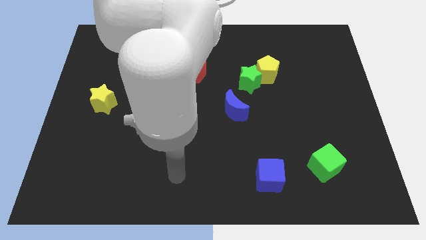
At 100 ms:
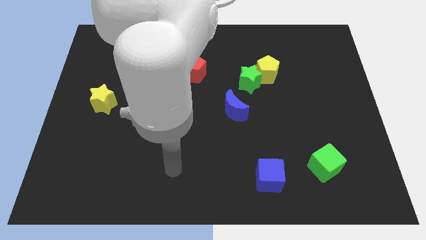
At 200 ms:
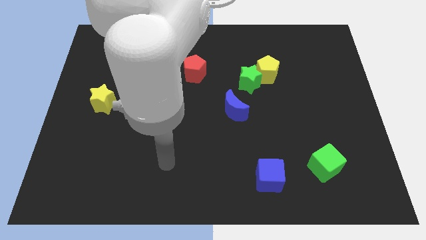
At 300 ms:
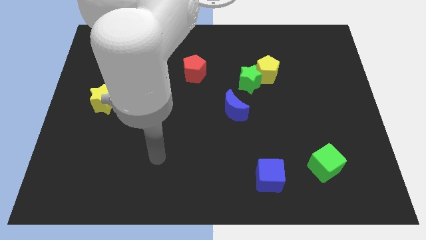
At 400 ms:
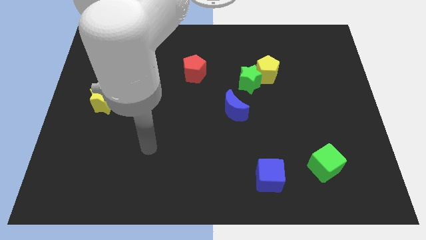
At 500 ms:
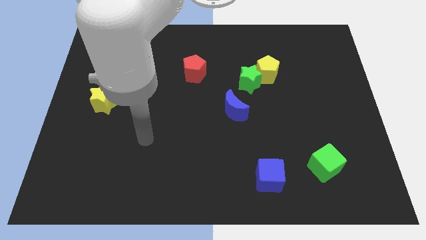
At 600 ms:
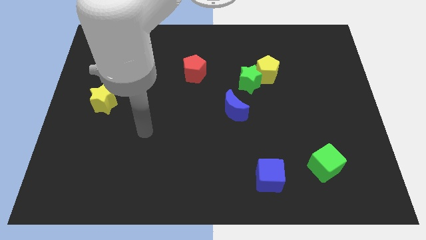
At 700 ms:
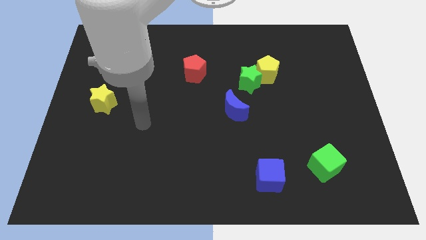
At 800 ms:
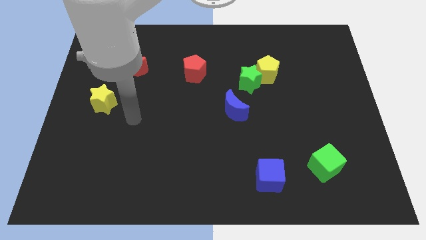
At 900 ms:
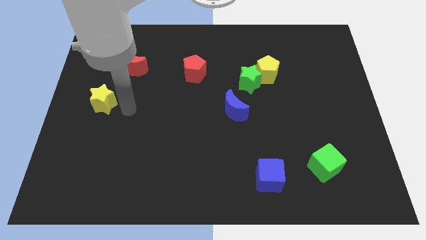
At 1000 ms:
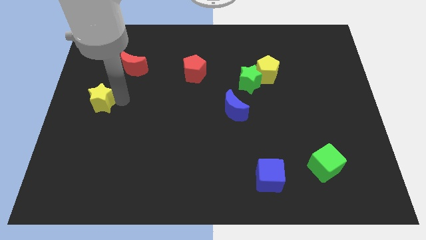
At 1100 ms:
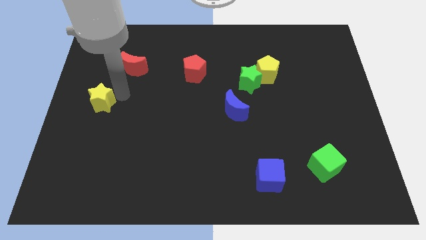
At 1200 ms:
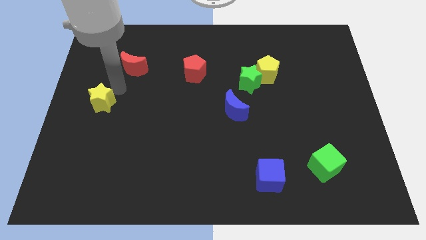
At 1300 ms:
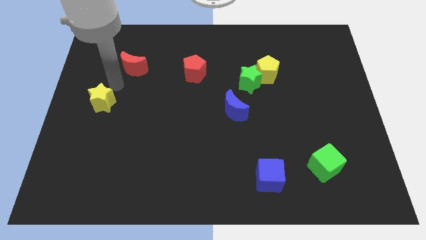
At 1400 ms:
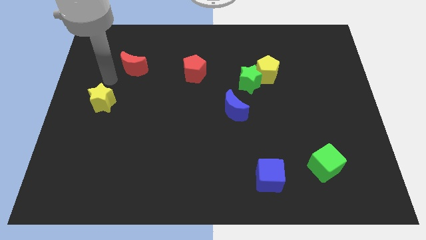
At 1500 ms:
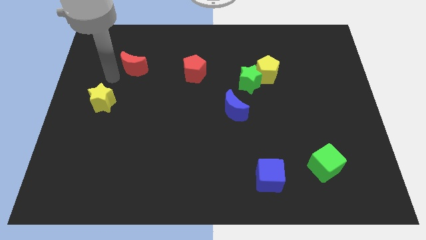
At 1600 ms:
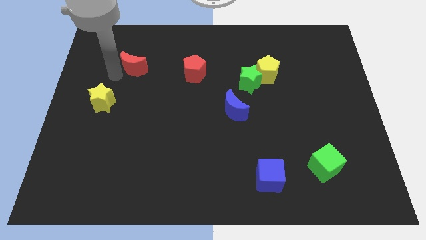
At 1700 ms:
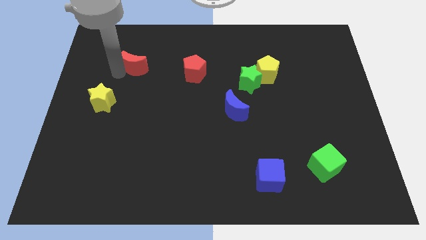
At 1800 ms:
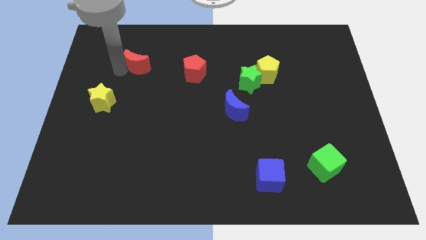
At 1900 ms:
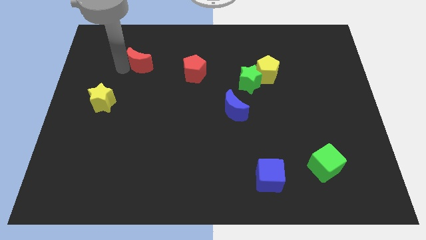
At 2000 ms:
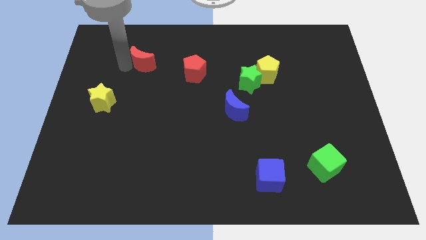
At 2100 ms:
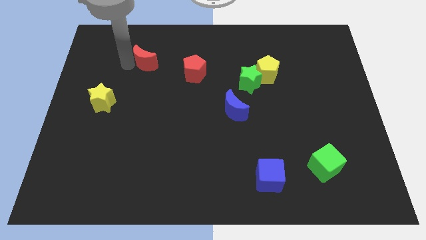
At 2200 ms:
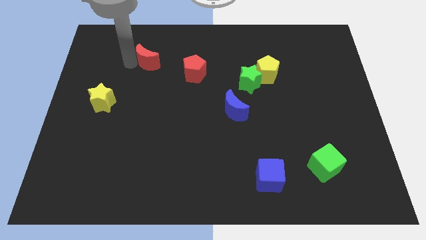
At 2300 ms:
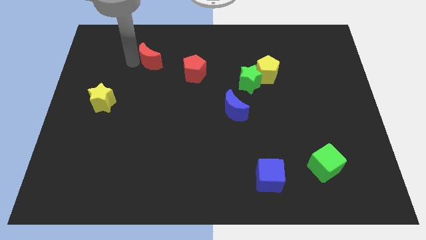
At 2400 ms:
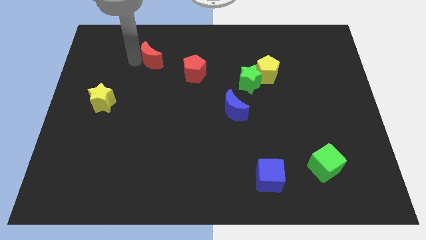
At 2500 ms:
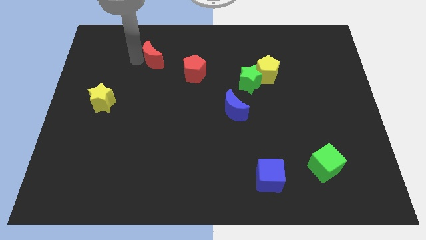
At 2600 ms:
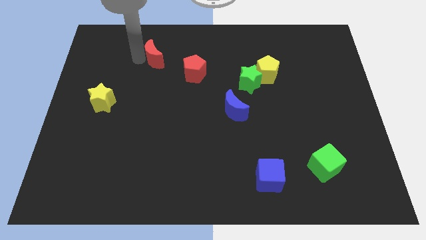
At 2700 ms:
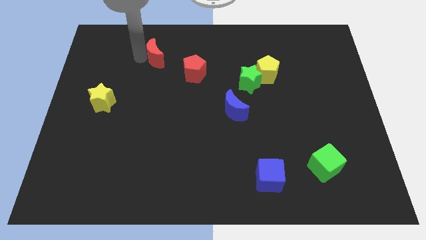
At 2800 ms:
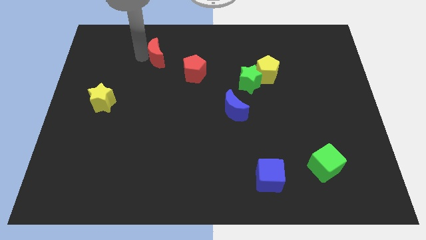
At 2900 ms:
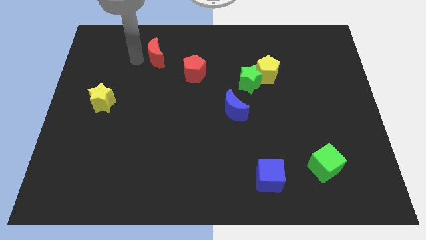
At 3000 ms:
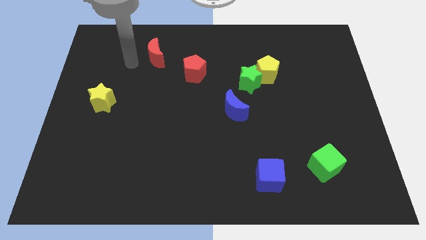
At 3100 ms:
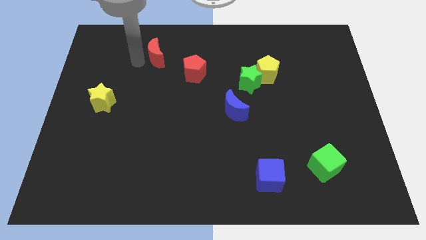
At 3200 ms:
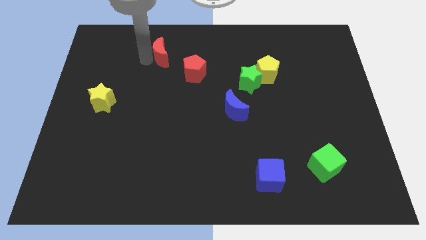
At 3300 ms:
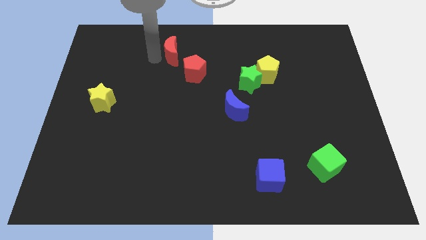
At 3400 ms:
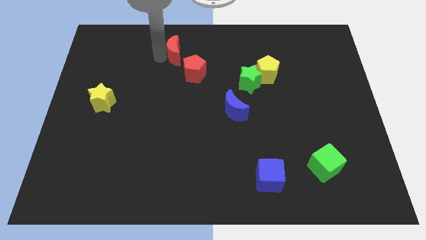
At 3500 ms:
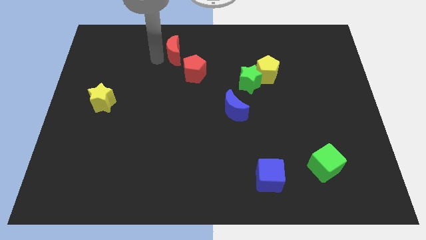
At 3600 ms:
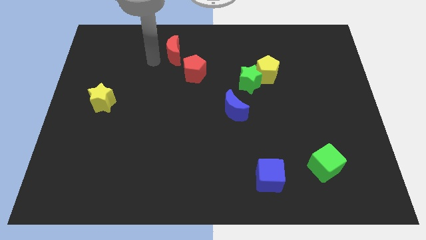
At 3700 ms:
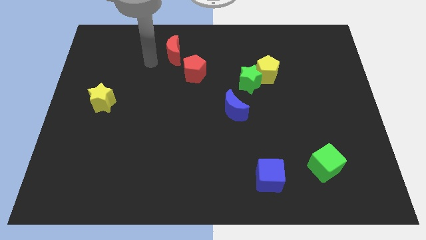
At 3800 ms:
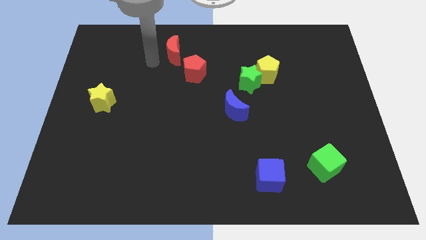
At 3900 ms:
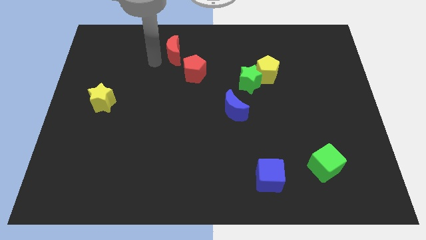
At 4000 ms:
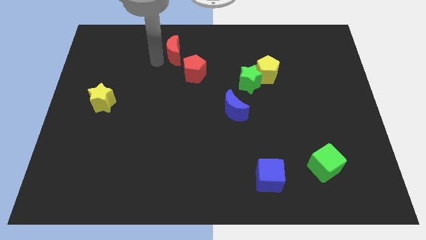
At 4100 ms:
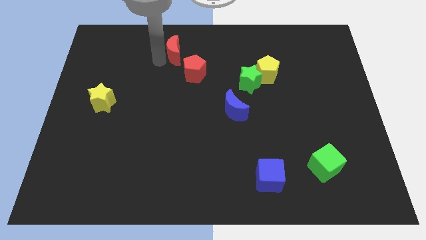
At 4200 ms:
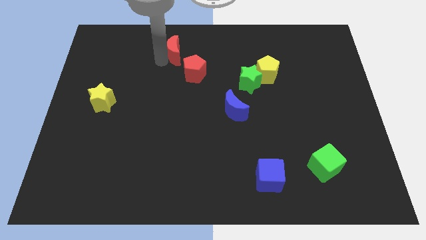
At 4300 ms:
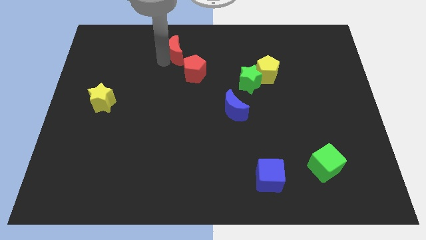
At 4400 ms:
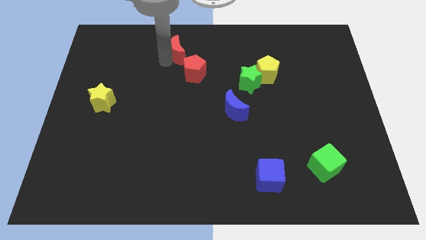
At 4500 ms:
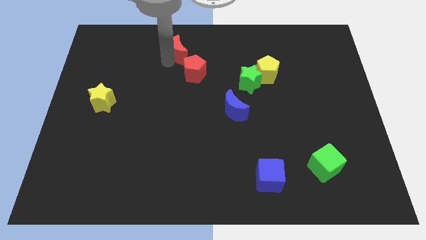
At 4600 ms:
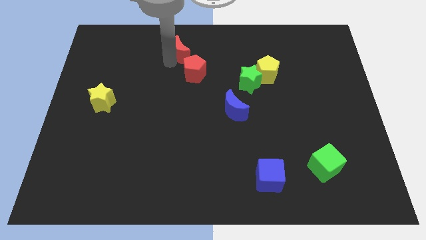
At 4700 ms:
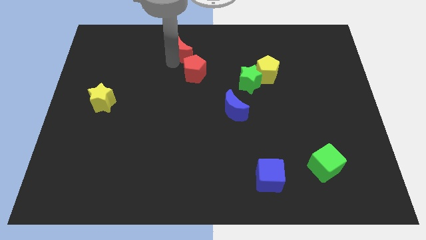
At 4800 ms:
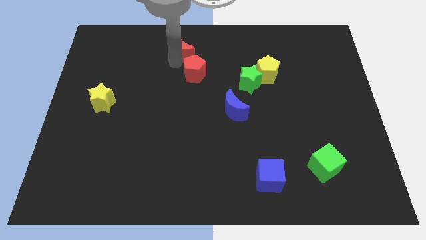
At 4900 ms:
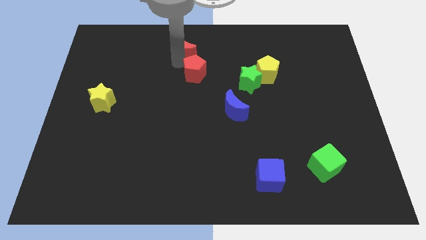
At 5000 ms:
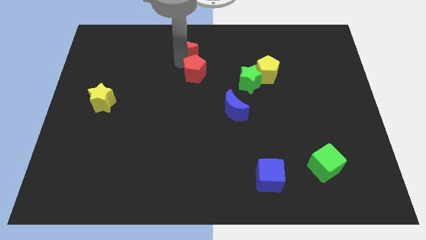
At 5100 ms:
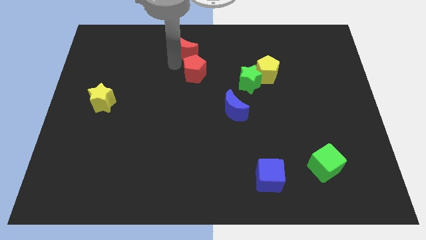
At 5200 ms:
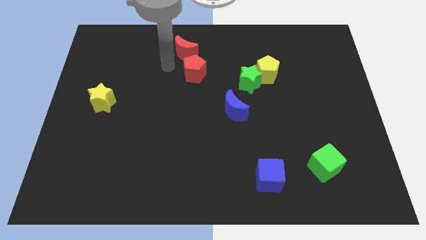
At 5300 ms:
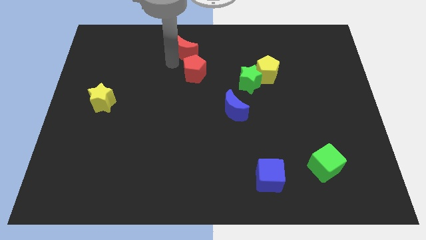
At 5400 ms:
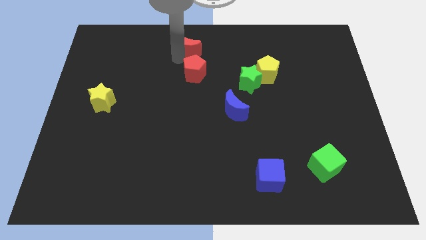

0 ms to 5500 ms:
move the red moon to the towards your base

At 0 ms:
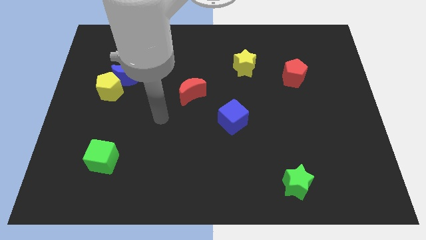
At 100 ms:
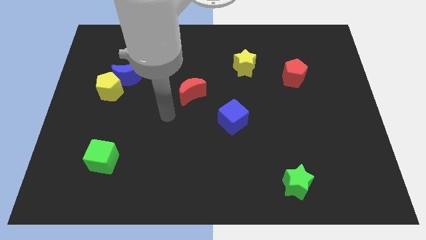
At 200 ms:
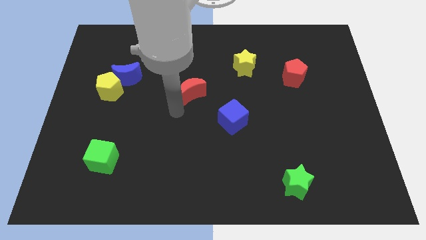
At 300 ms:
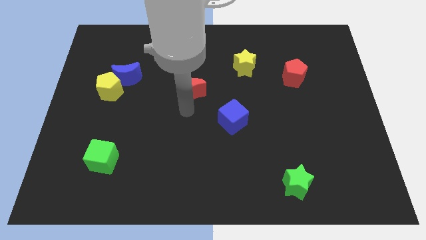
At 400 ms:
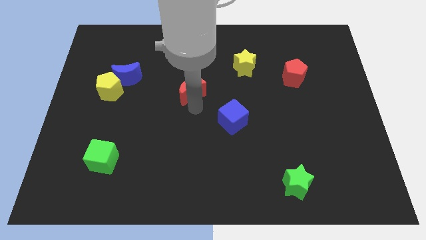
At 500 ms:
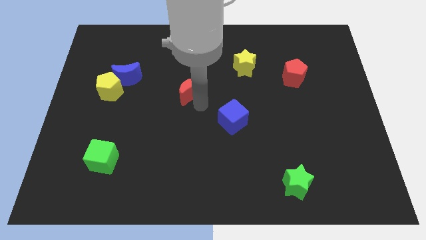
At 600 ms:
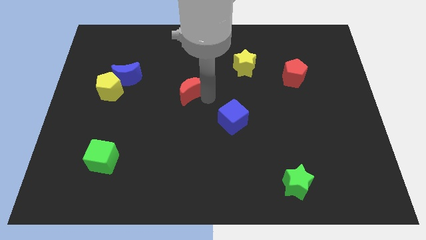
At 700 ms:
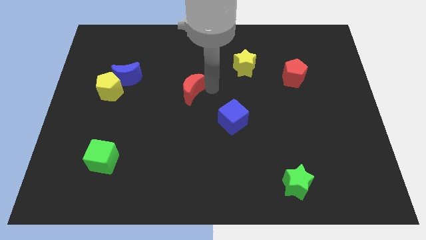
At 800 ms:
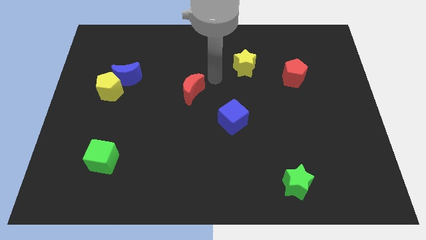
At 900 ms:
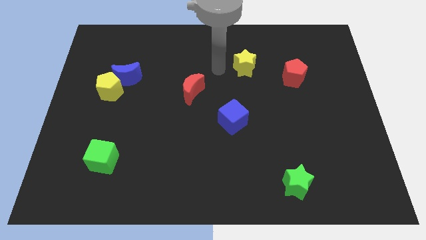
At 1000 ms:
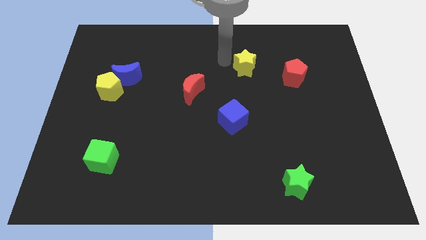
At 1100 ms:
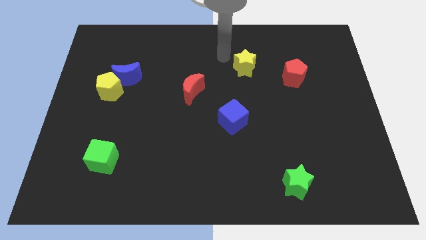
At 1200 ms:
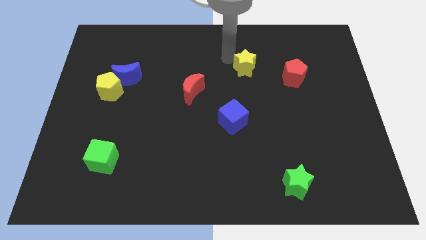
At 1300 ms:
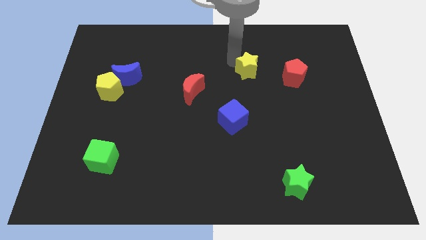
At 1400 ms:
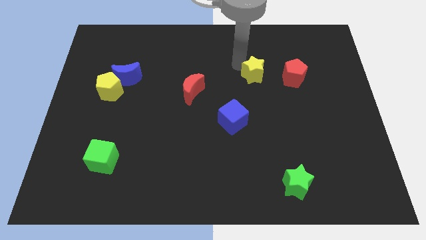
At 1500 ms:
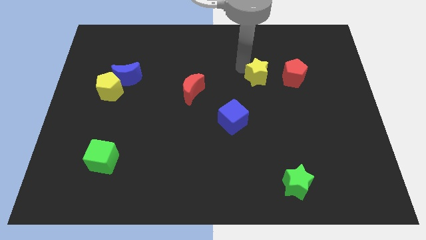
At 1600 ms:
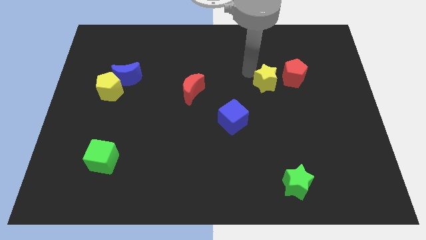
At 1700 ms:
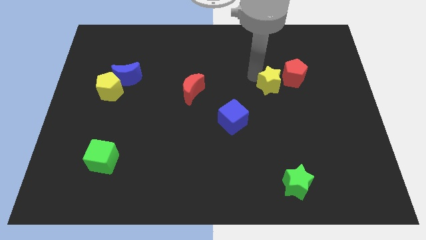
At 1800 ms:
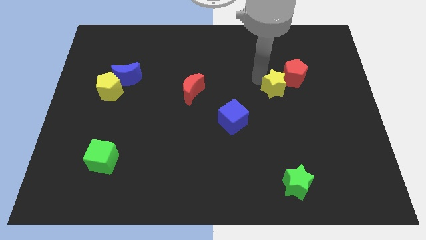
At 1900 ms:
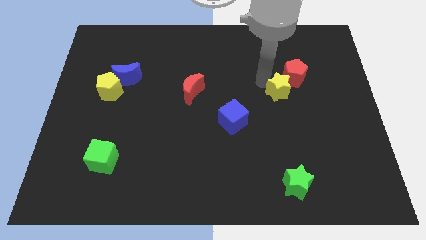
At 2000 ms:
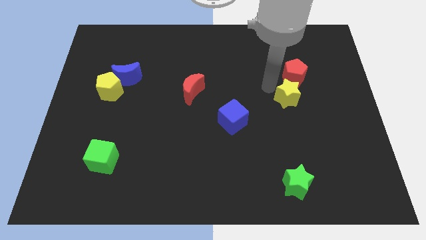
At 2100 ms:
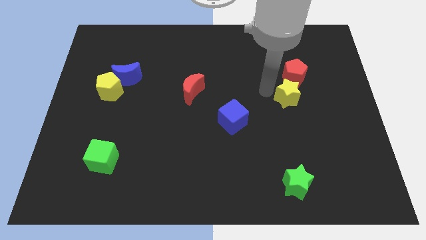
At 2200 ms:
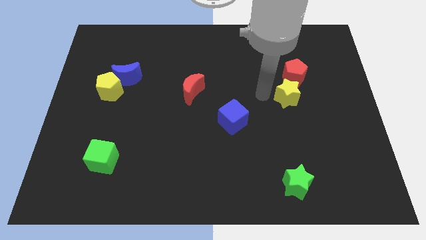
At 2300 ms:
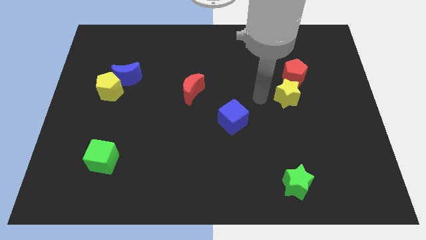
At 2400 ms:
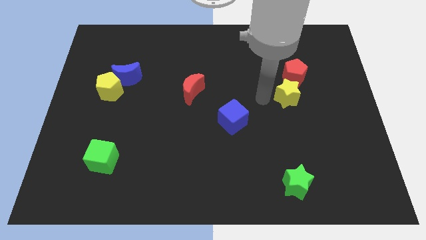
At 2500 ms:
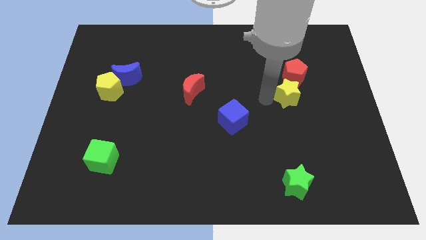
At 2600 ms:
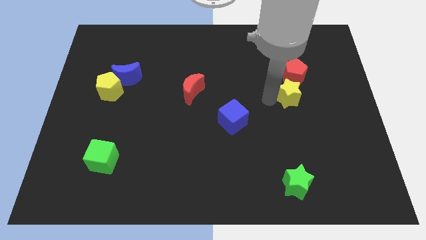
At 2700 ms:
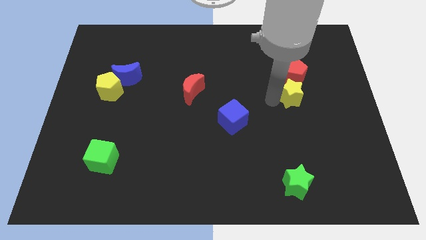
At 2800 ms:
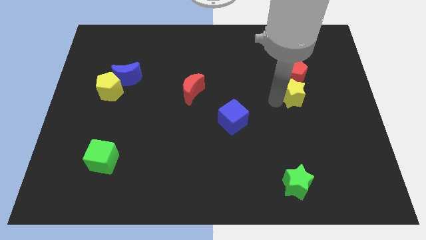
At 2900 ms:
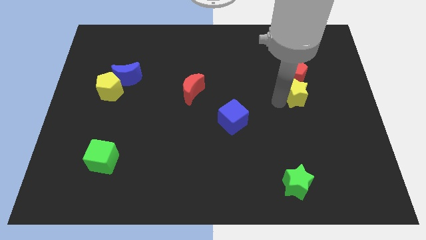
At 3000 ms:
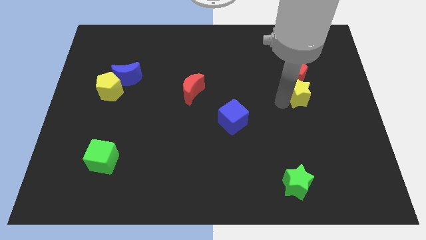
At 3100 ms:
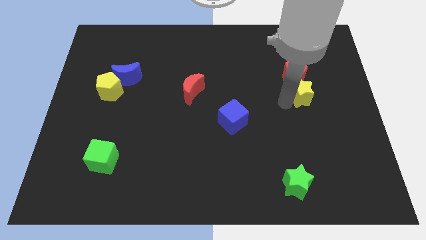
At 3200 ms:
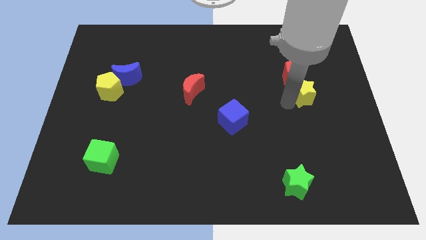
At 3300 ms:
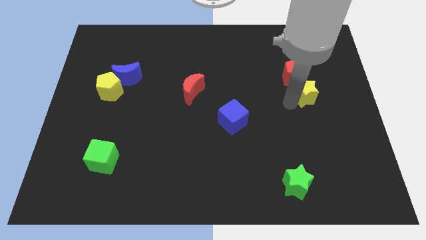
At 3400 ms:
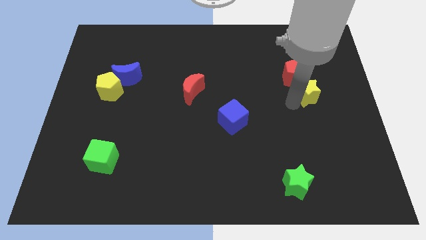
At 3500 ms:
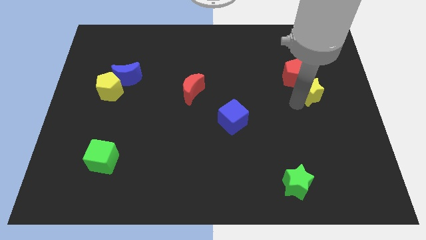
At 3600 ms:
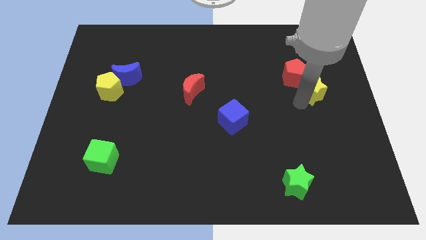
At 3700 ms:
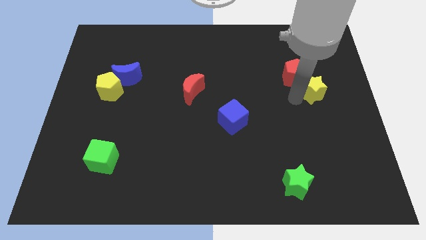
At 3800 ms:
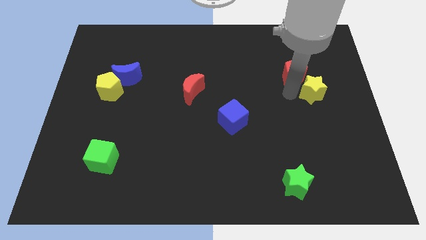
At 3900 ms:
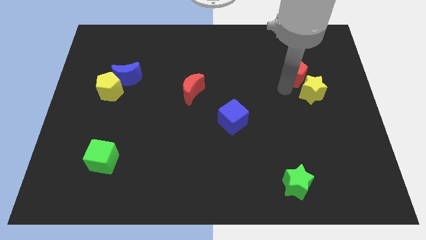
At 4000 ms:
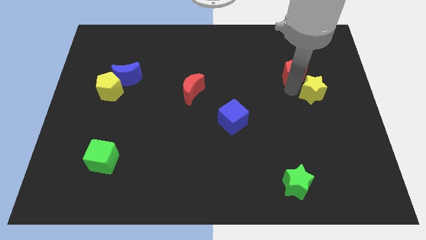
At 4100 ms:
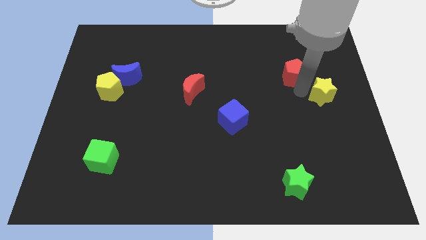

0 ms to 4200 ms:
push the yellow star to the right side
